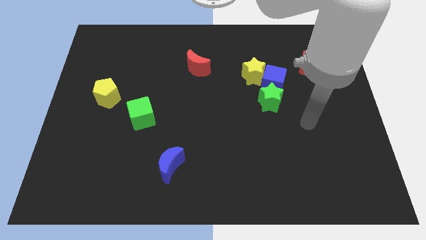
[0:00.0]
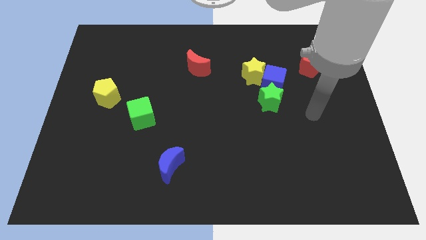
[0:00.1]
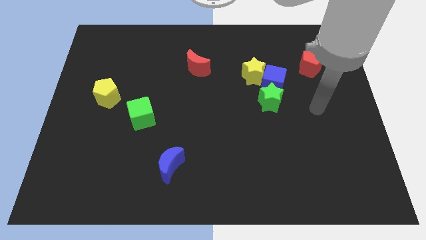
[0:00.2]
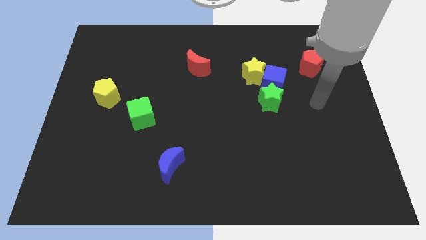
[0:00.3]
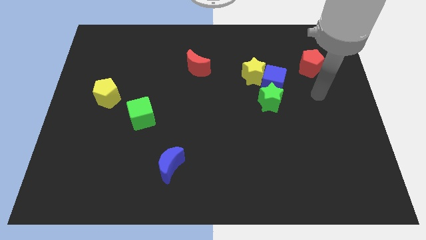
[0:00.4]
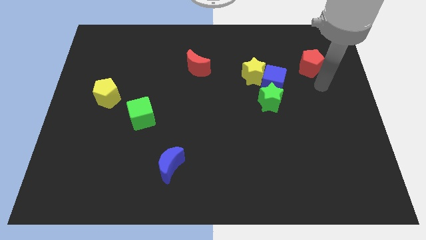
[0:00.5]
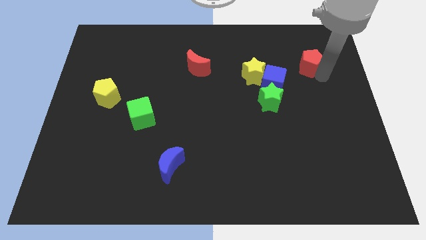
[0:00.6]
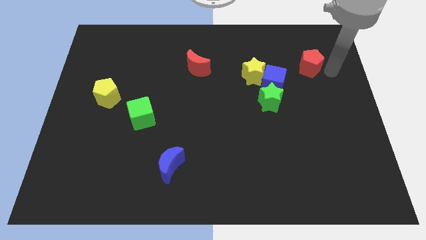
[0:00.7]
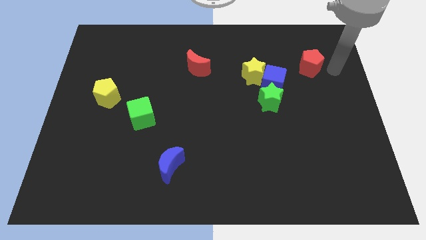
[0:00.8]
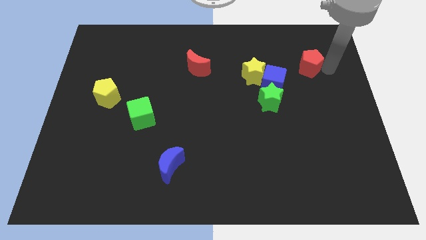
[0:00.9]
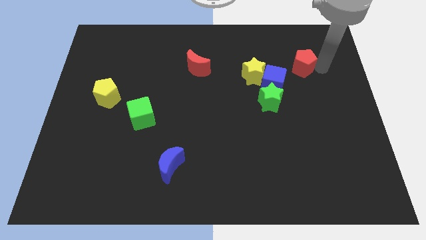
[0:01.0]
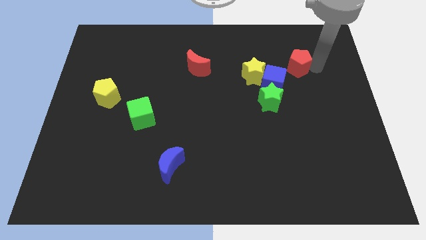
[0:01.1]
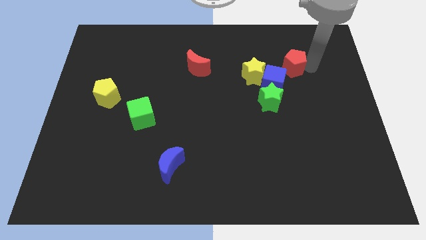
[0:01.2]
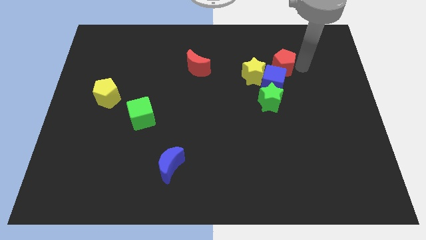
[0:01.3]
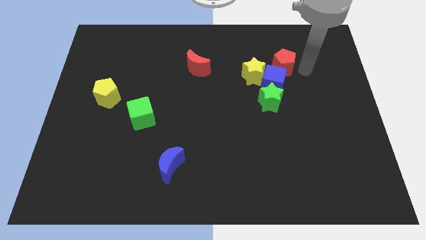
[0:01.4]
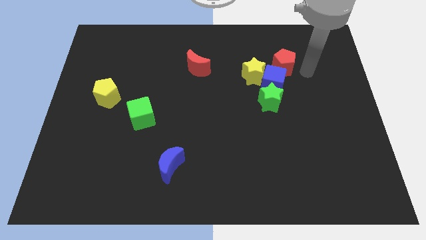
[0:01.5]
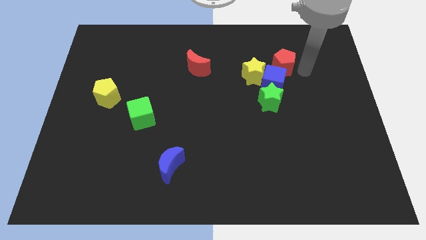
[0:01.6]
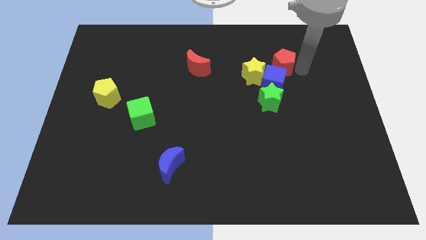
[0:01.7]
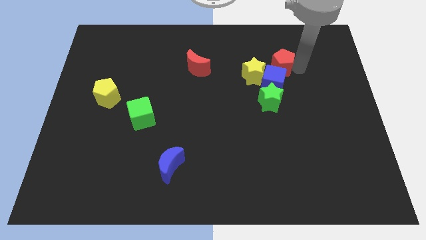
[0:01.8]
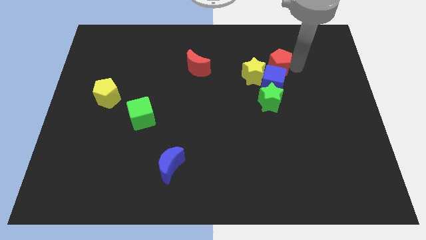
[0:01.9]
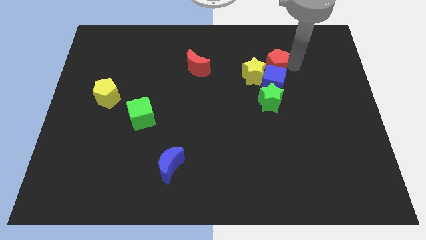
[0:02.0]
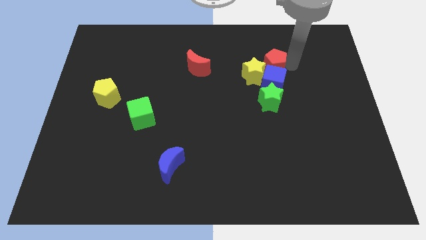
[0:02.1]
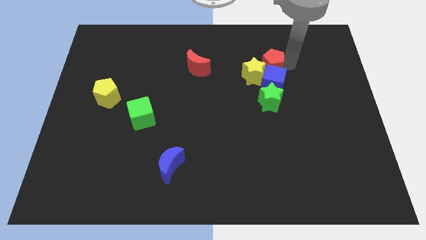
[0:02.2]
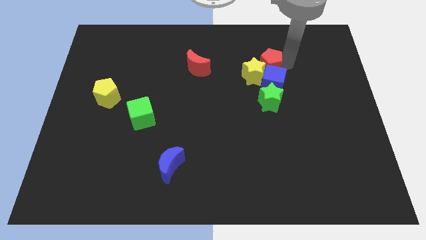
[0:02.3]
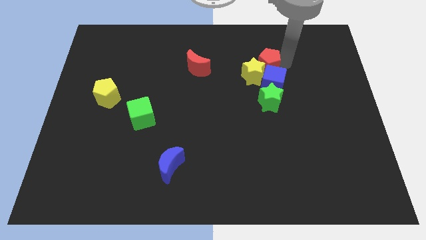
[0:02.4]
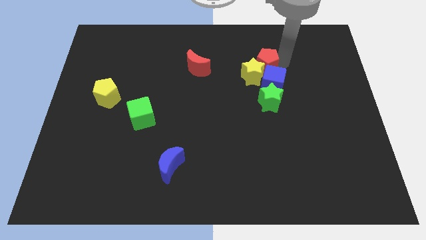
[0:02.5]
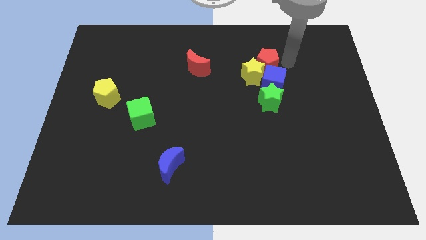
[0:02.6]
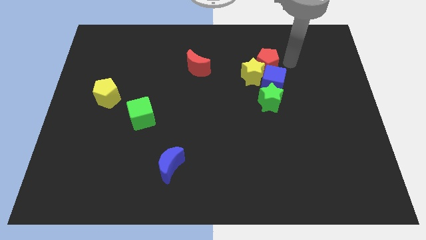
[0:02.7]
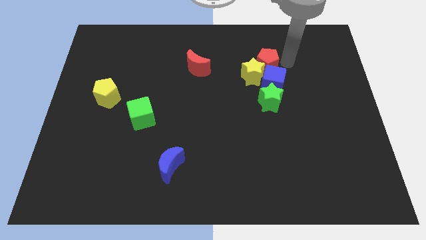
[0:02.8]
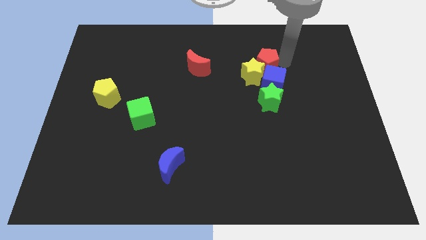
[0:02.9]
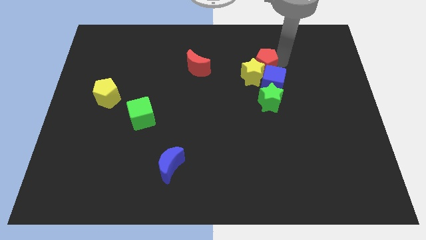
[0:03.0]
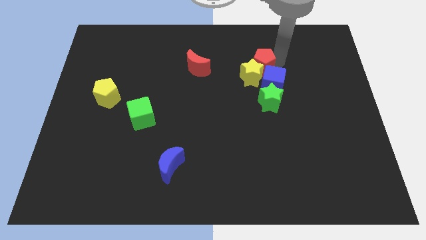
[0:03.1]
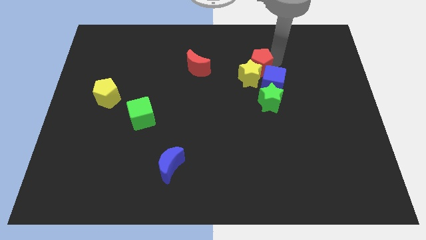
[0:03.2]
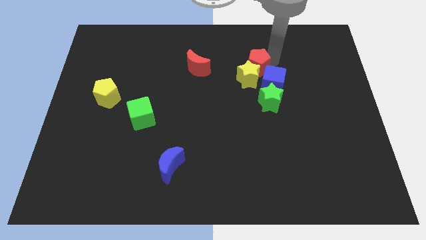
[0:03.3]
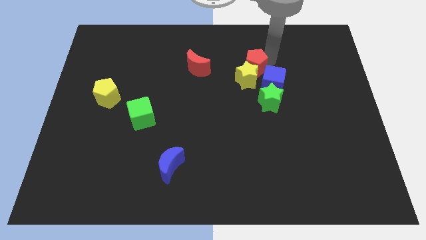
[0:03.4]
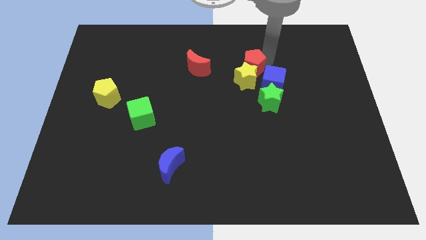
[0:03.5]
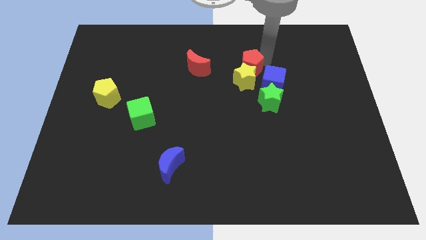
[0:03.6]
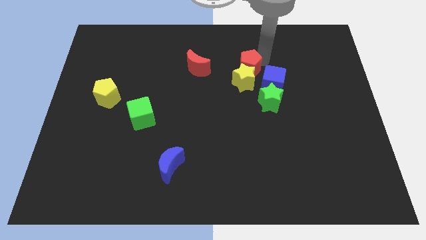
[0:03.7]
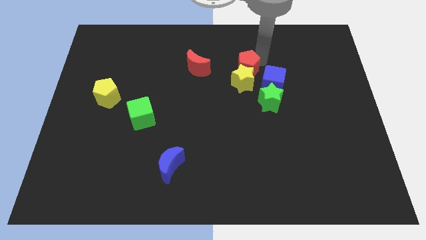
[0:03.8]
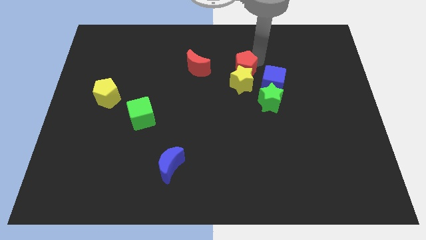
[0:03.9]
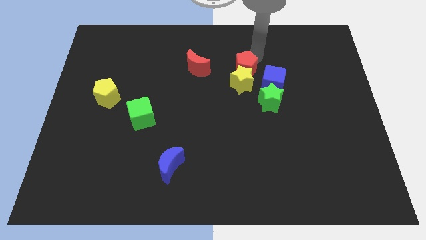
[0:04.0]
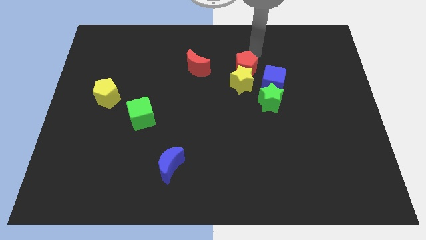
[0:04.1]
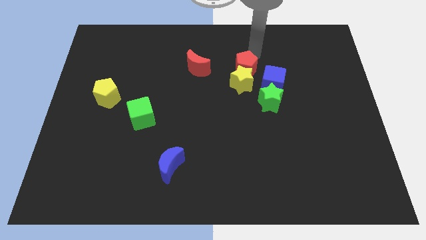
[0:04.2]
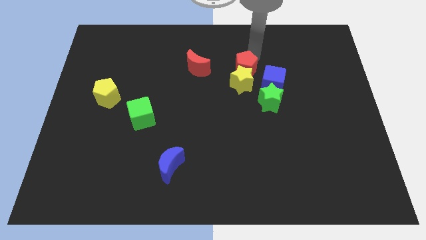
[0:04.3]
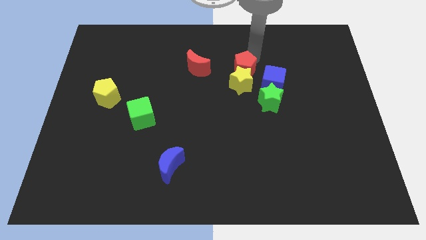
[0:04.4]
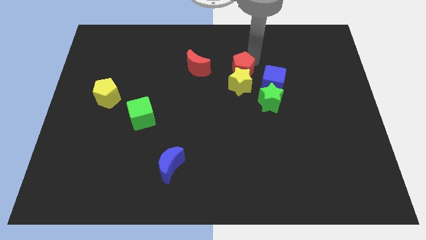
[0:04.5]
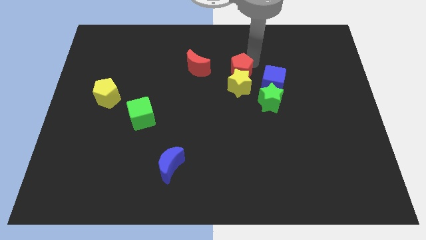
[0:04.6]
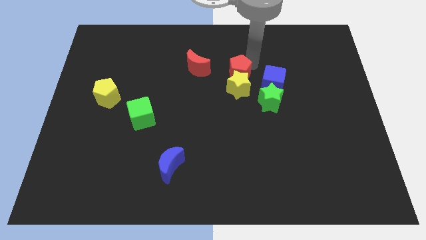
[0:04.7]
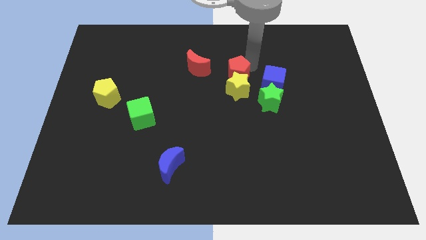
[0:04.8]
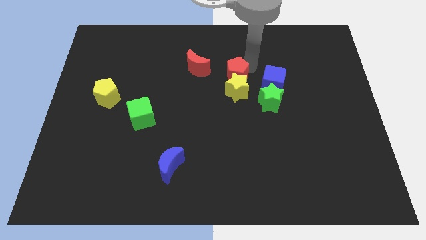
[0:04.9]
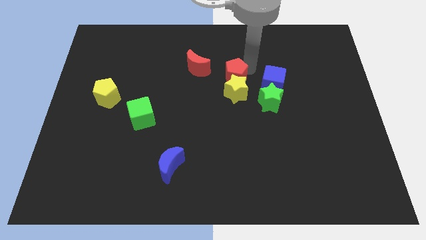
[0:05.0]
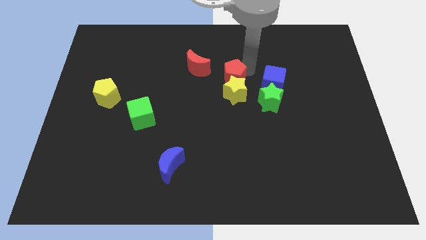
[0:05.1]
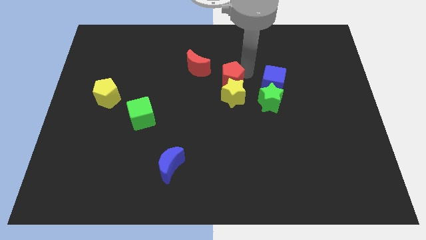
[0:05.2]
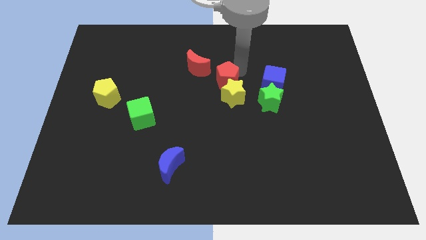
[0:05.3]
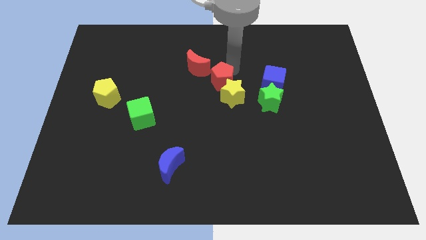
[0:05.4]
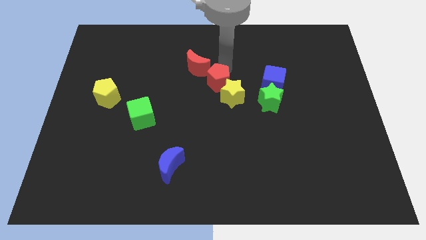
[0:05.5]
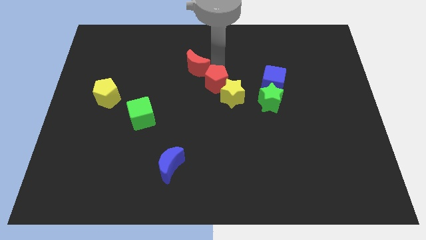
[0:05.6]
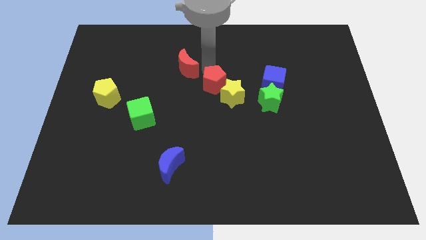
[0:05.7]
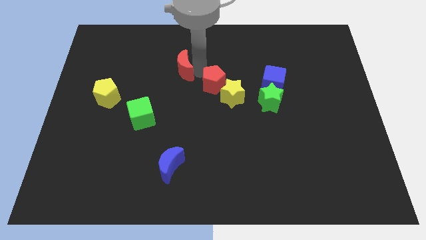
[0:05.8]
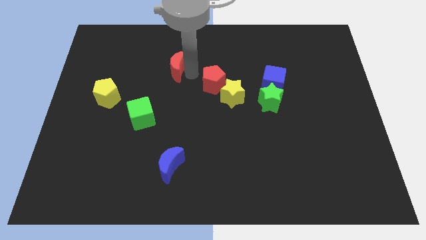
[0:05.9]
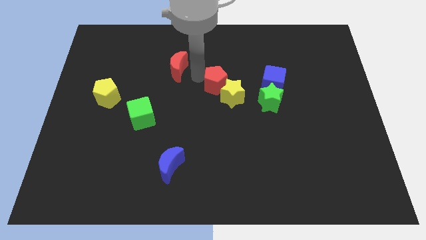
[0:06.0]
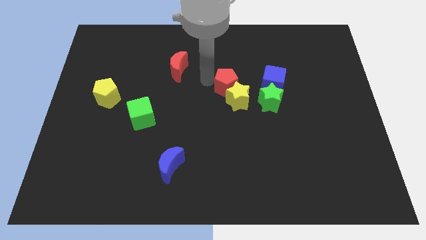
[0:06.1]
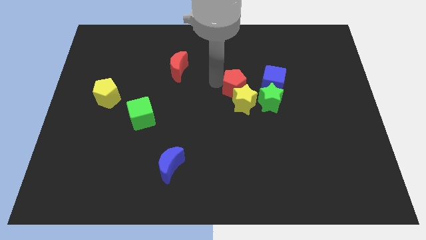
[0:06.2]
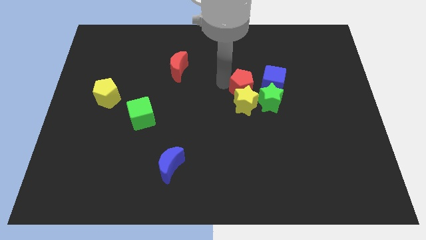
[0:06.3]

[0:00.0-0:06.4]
put the red pentagon diagonally down and to the left of the blue cube
